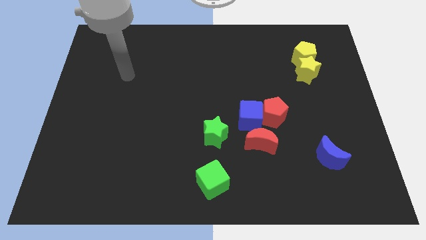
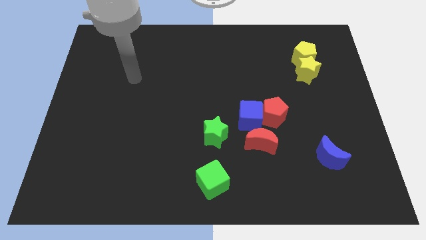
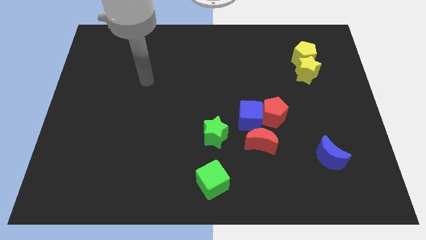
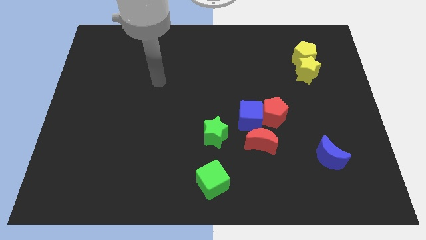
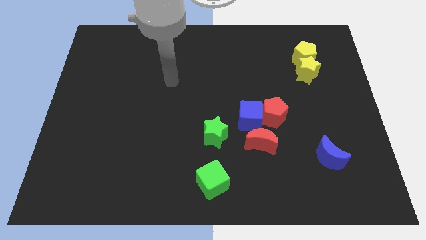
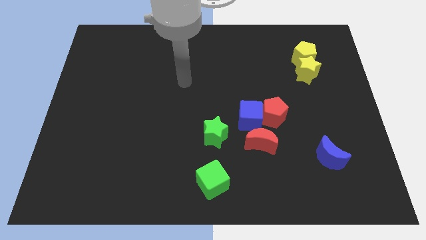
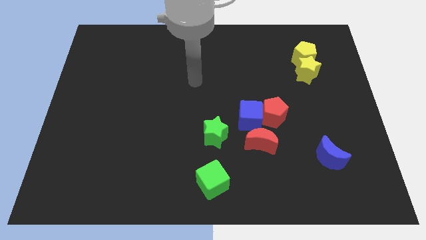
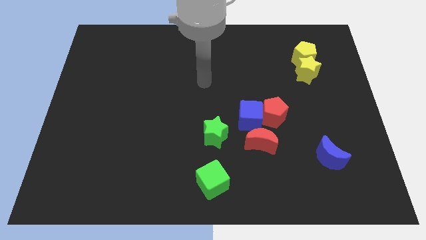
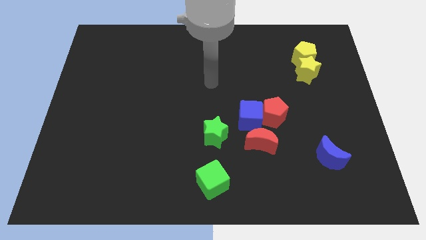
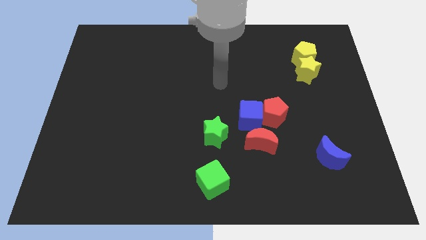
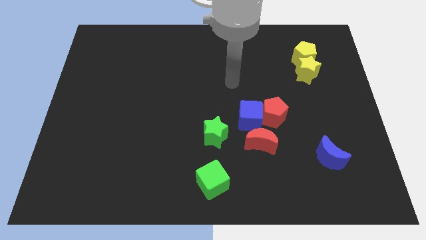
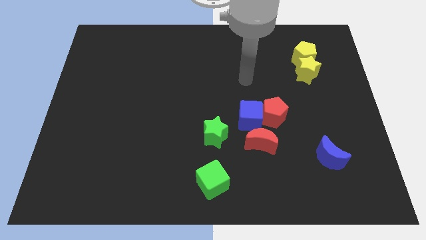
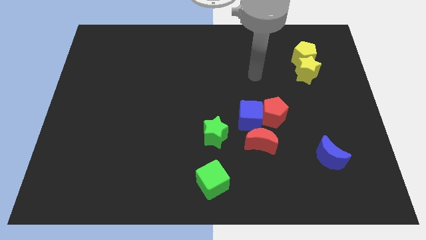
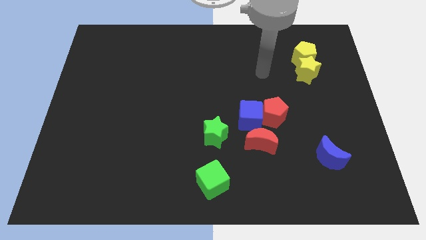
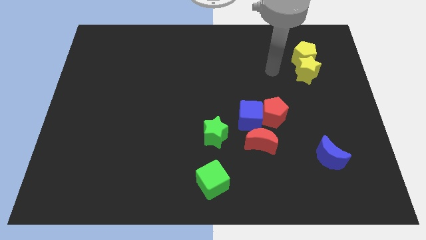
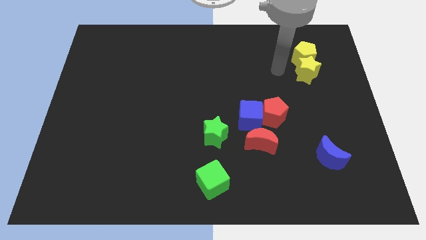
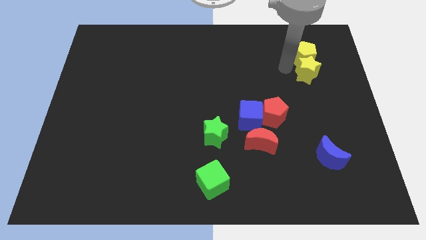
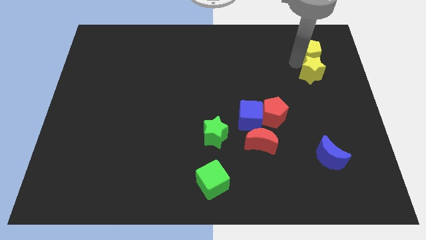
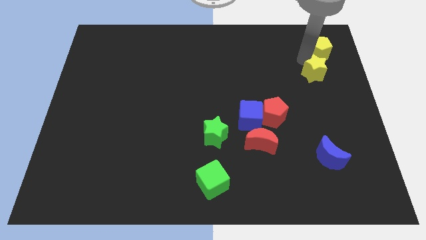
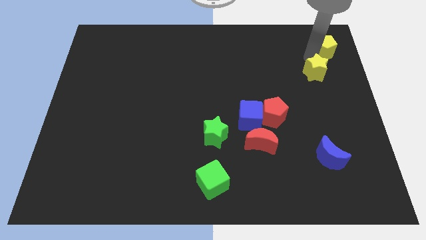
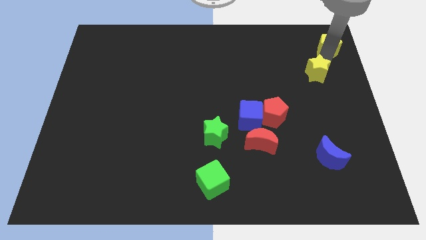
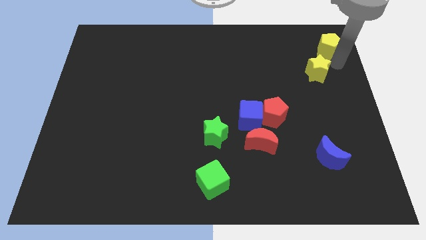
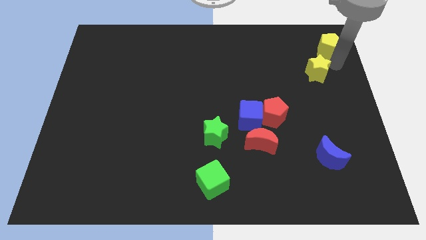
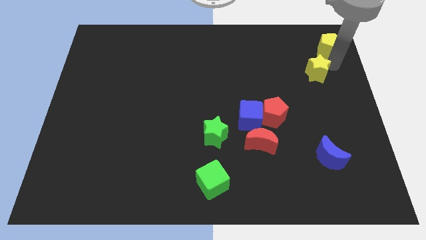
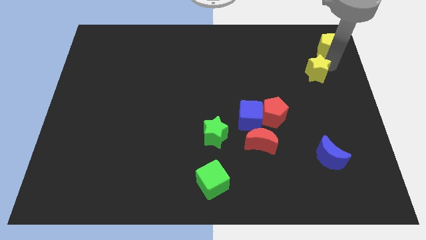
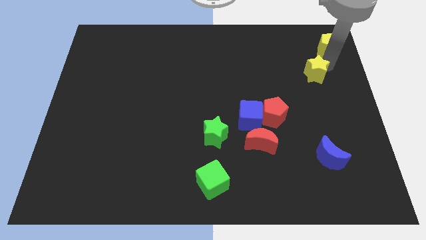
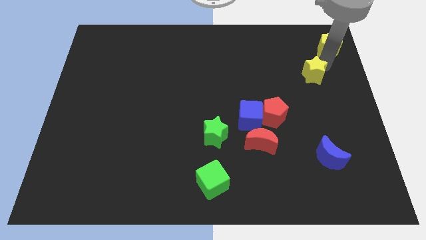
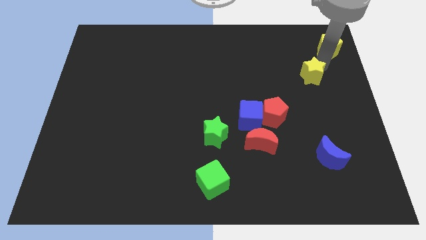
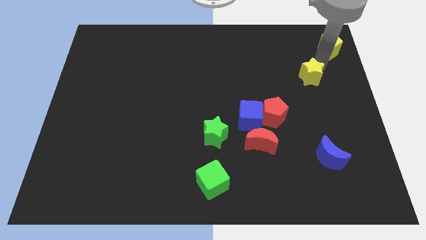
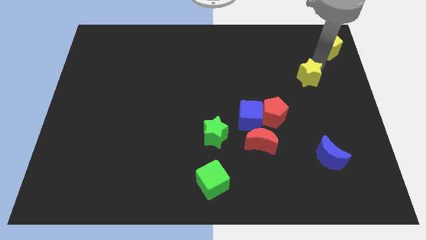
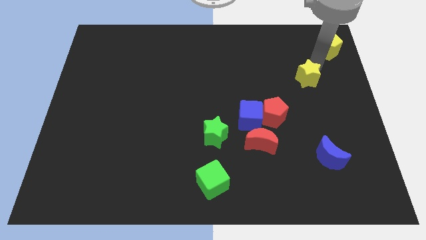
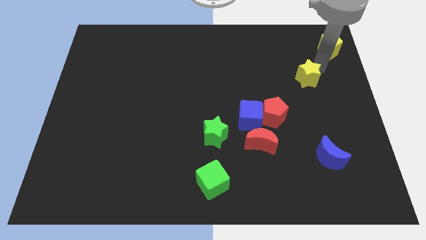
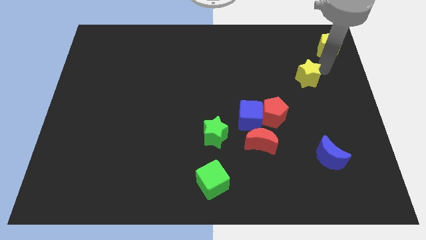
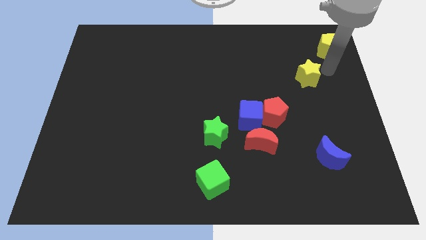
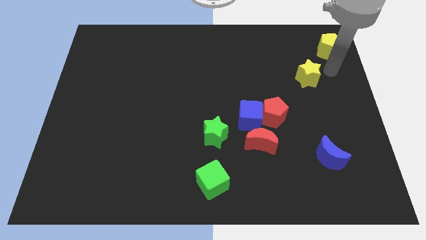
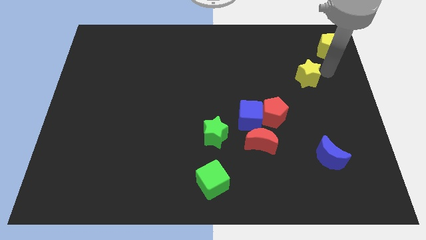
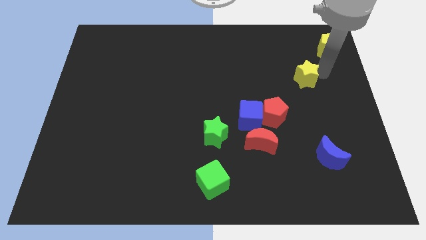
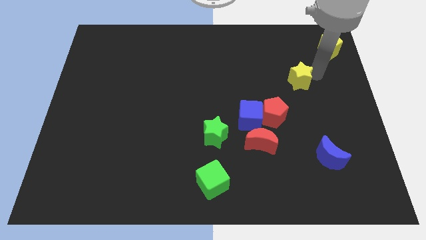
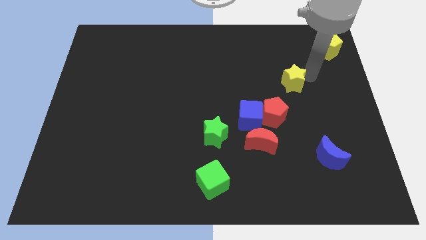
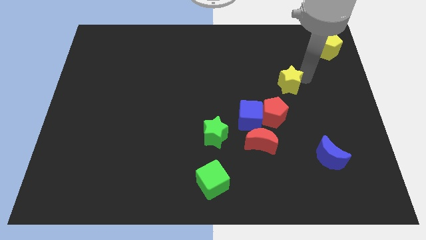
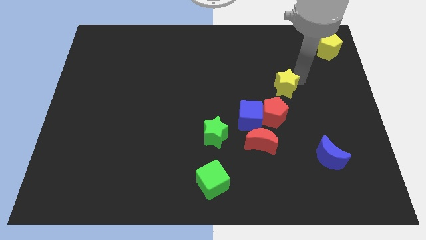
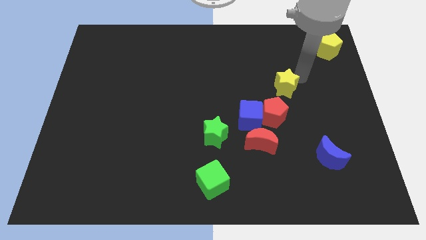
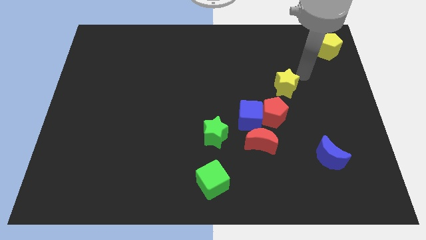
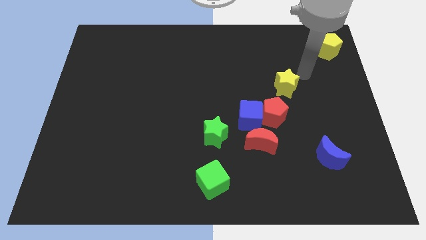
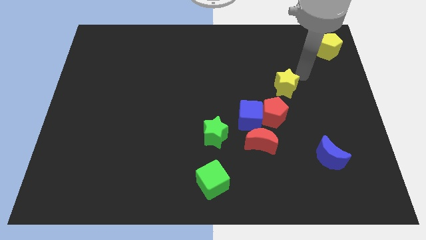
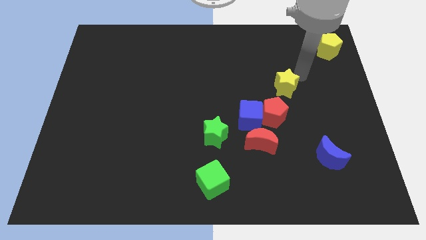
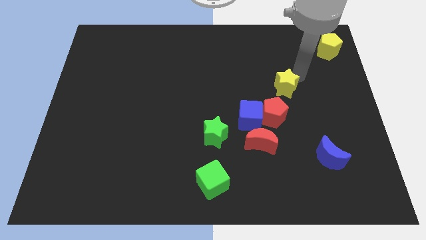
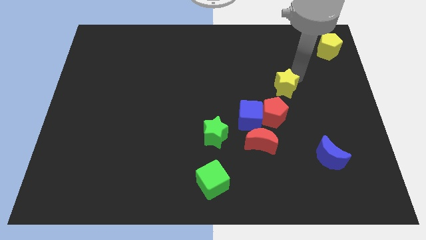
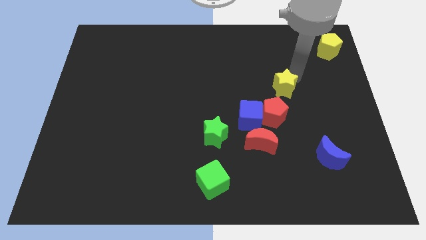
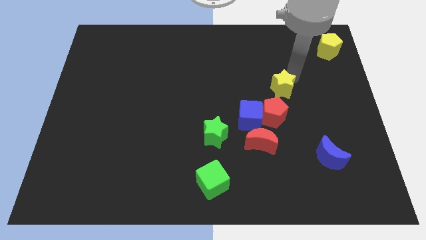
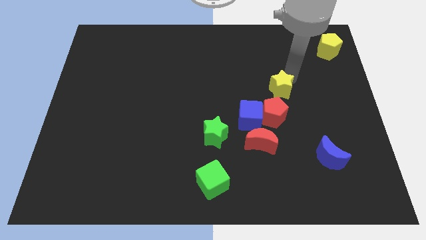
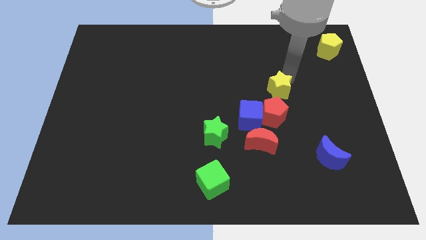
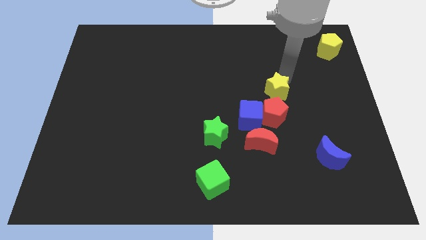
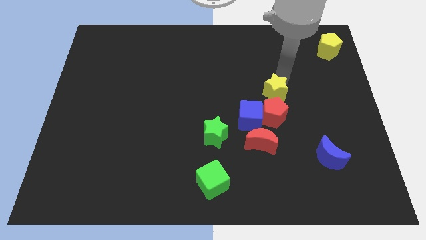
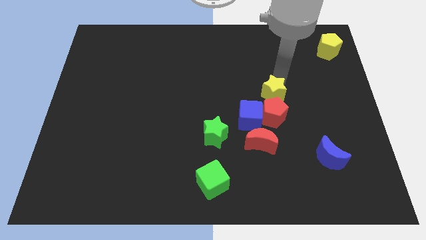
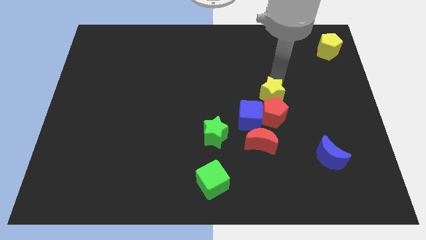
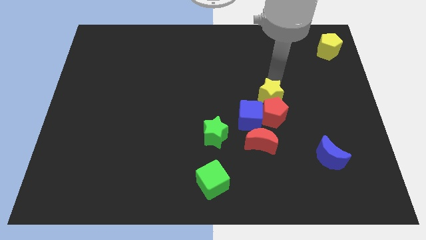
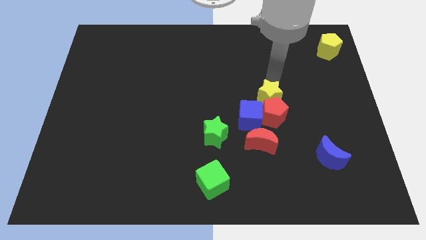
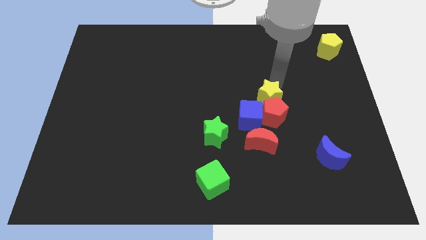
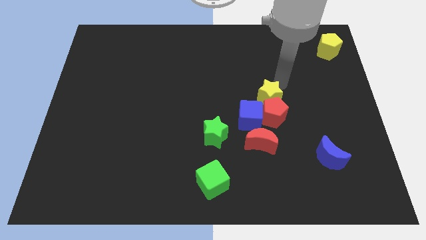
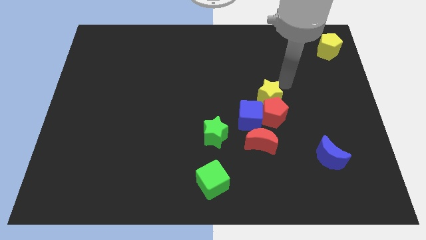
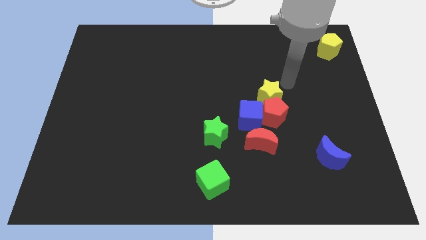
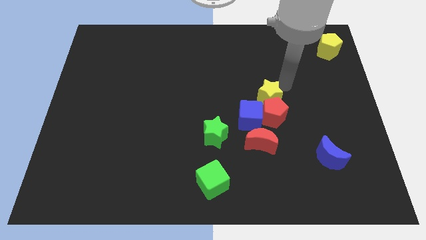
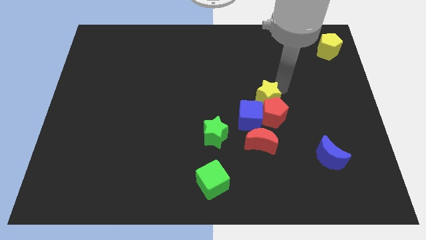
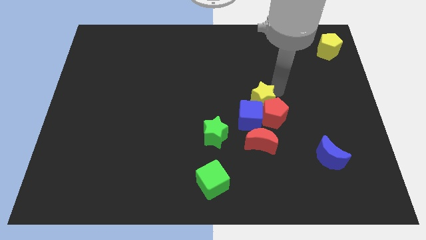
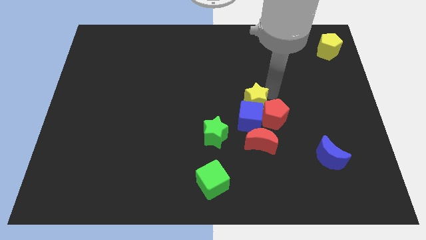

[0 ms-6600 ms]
put the yellow star towards the blue cube
